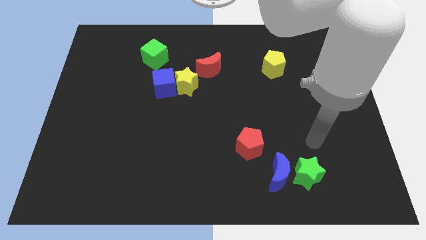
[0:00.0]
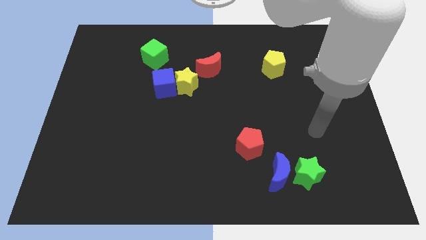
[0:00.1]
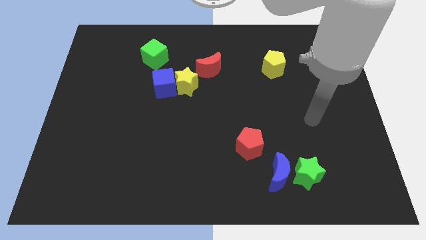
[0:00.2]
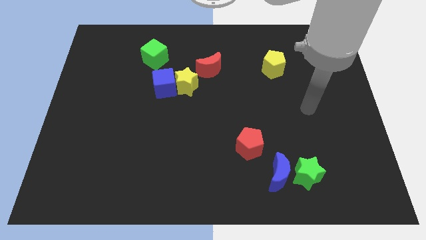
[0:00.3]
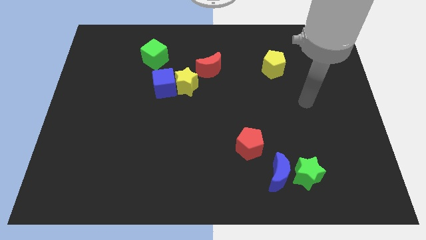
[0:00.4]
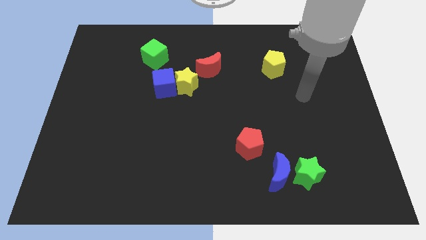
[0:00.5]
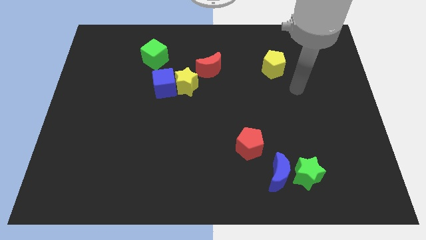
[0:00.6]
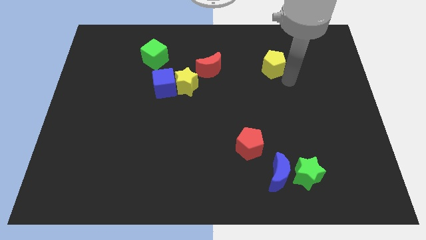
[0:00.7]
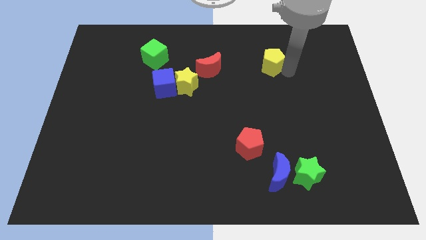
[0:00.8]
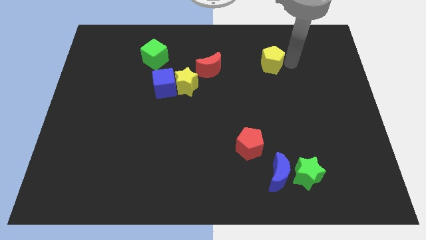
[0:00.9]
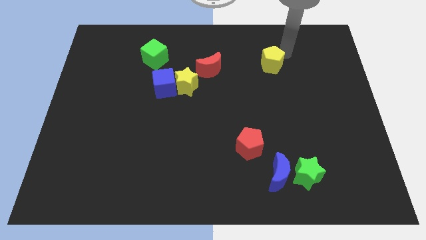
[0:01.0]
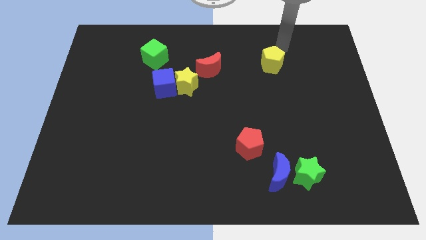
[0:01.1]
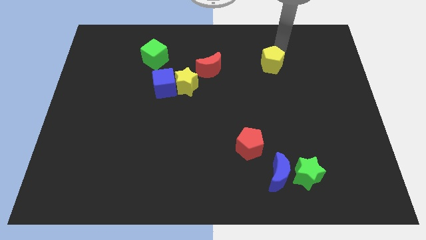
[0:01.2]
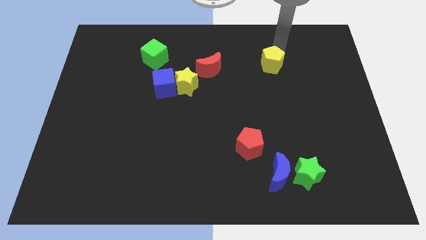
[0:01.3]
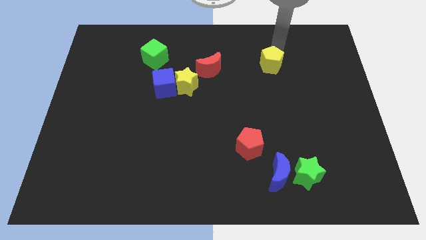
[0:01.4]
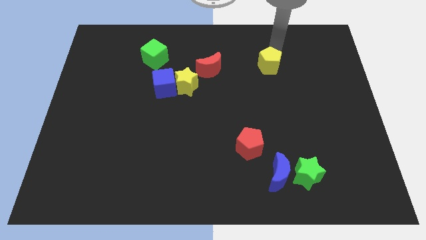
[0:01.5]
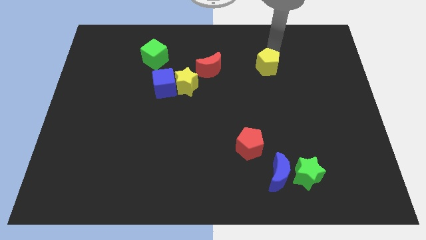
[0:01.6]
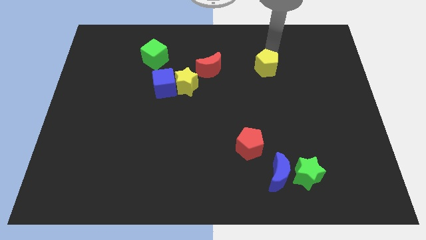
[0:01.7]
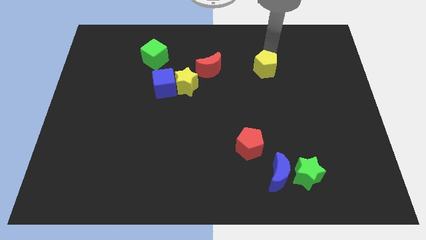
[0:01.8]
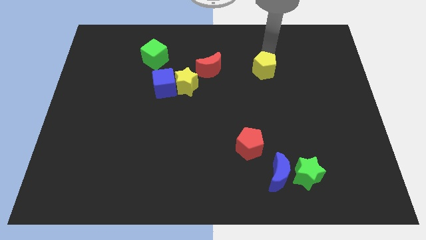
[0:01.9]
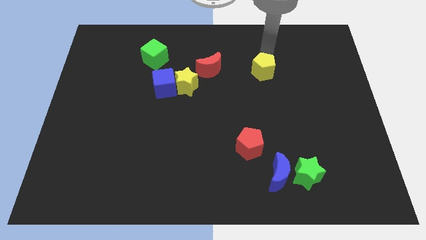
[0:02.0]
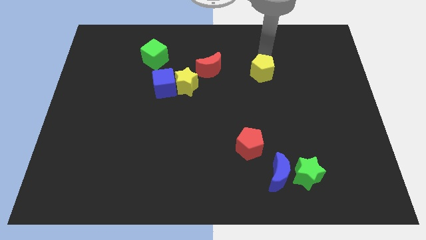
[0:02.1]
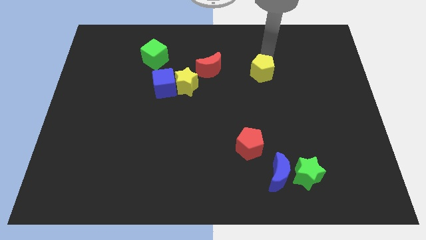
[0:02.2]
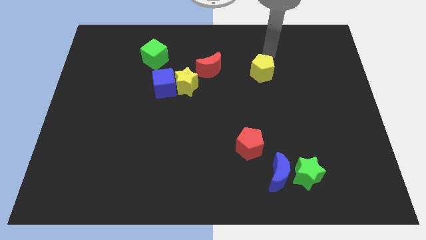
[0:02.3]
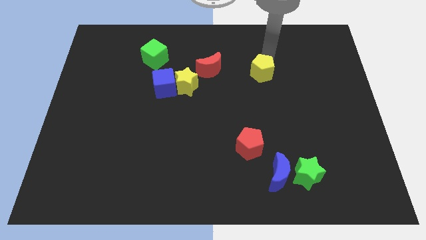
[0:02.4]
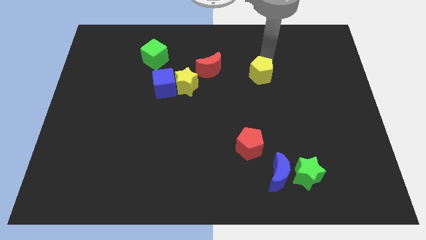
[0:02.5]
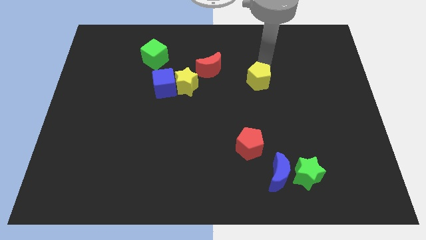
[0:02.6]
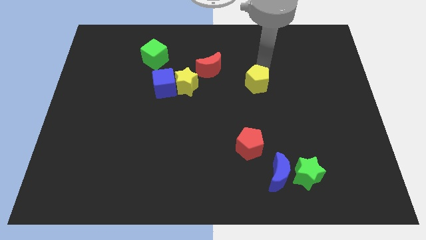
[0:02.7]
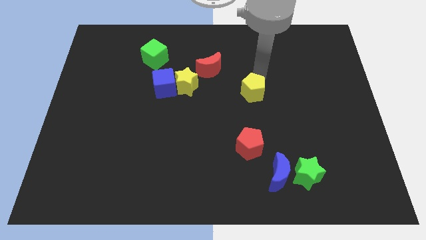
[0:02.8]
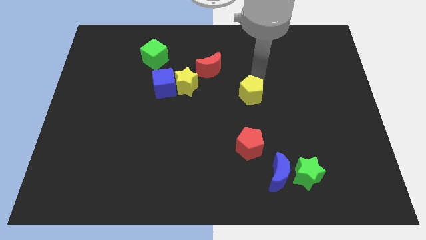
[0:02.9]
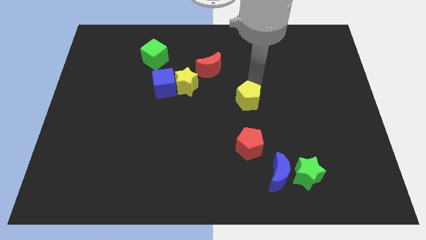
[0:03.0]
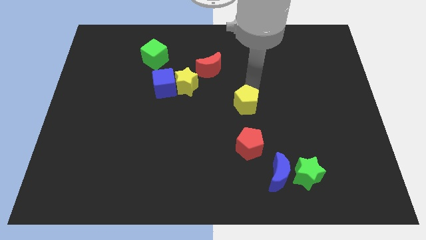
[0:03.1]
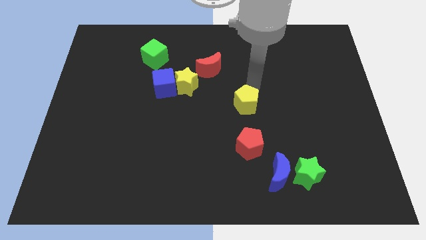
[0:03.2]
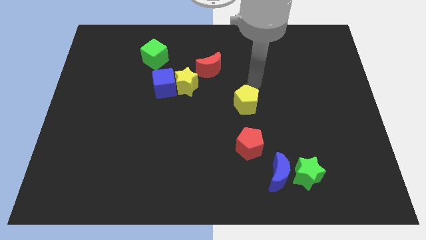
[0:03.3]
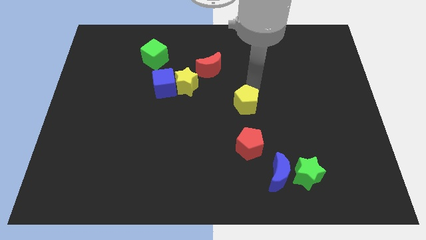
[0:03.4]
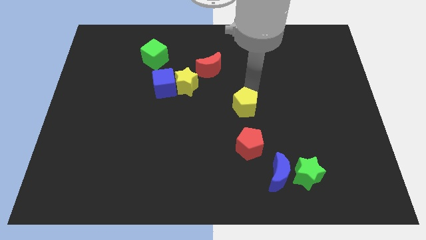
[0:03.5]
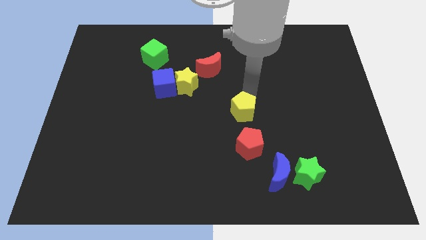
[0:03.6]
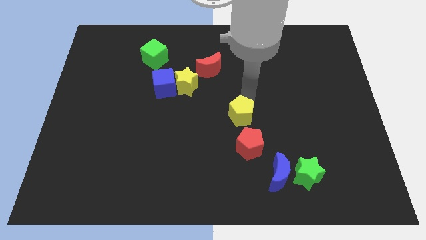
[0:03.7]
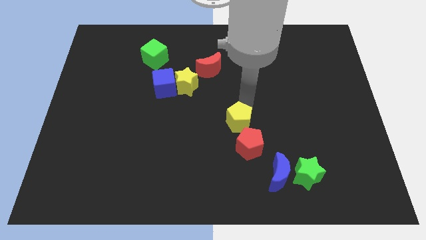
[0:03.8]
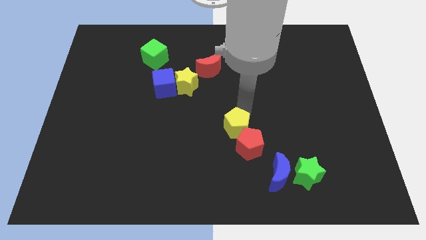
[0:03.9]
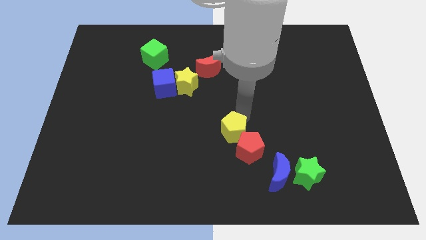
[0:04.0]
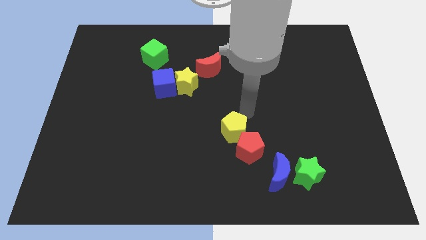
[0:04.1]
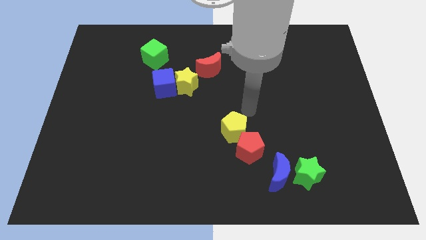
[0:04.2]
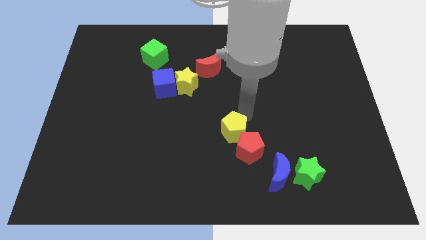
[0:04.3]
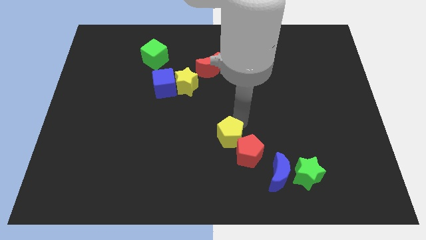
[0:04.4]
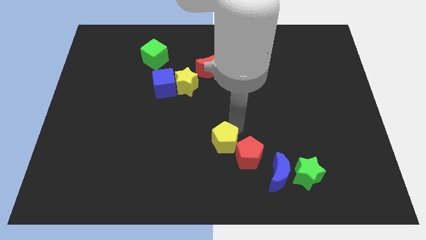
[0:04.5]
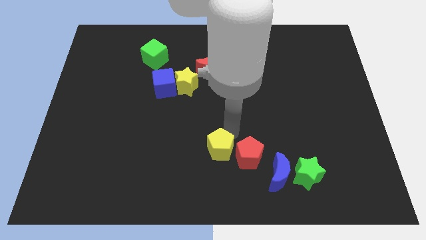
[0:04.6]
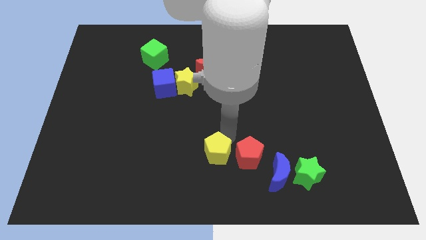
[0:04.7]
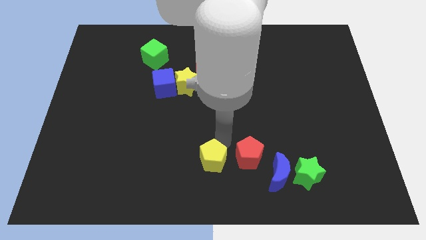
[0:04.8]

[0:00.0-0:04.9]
move the yellow pentagon to the bottom side

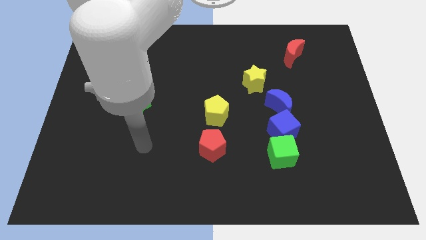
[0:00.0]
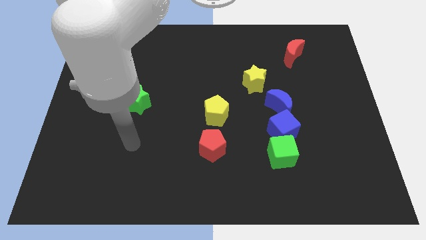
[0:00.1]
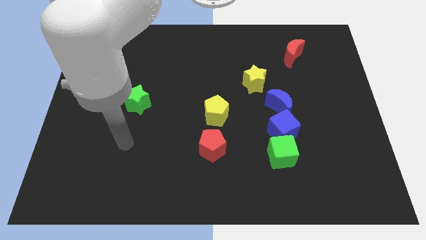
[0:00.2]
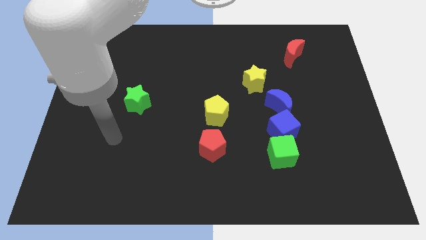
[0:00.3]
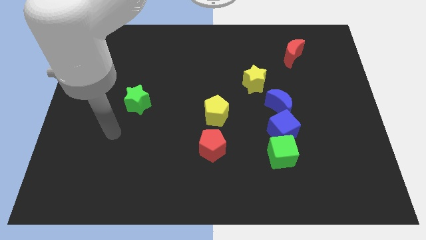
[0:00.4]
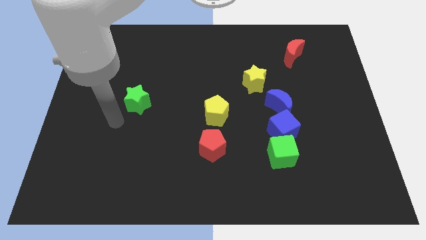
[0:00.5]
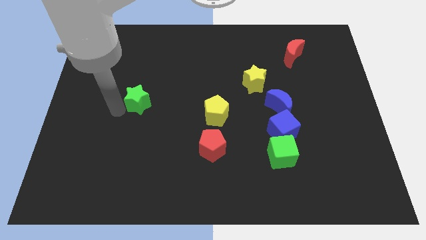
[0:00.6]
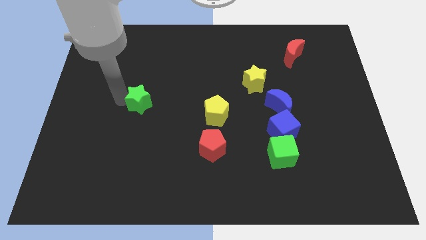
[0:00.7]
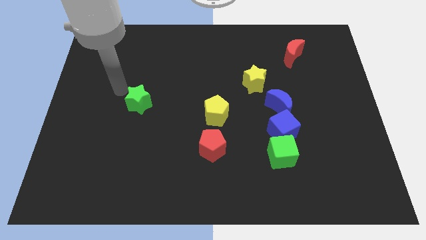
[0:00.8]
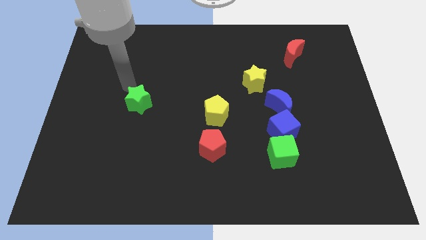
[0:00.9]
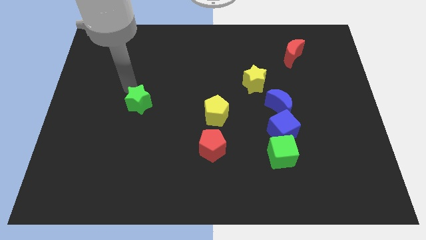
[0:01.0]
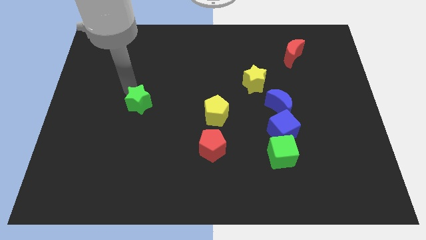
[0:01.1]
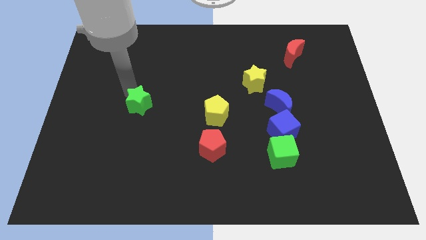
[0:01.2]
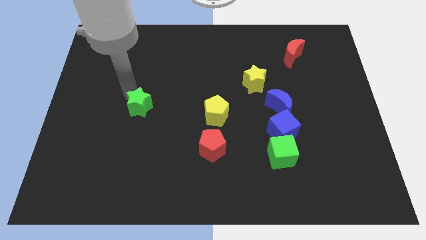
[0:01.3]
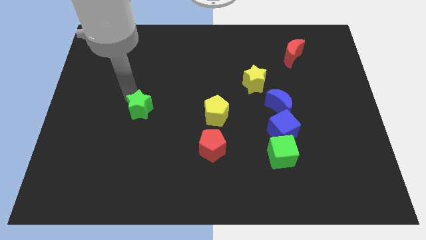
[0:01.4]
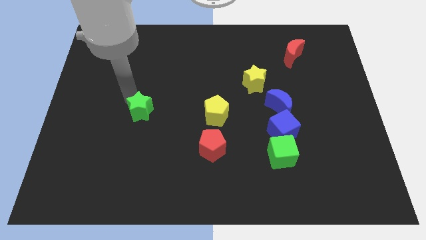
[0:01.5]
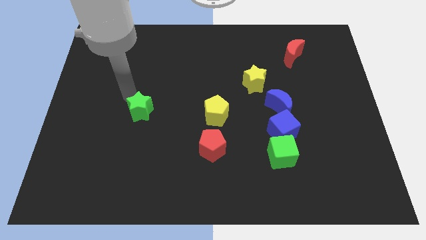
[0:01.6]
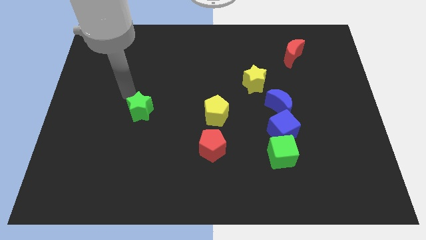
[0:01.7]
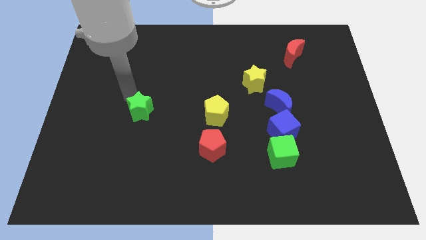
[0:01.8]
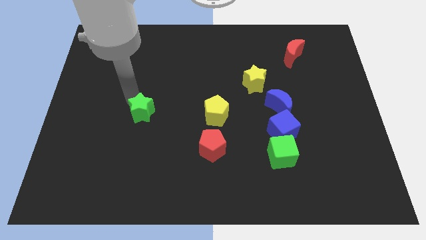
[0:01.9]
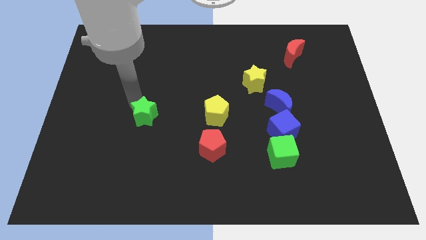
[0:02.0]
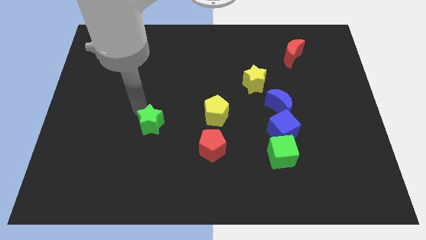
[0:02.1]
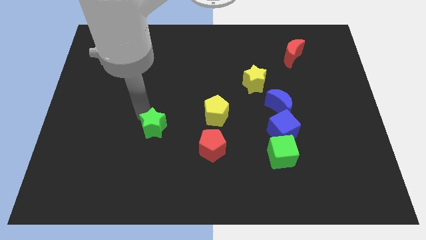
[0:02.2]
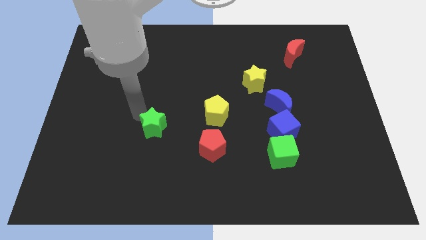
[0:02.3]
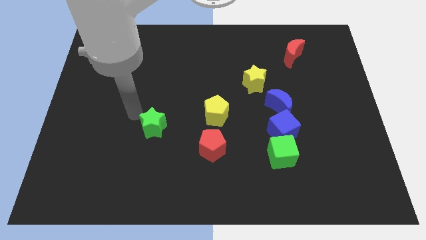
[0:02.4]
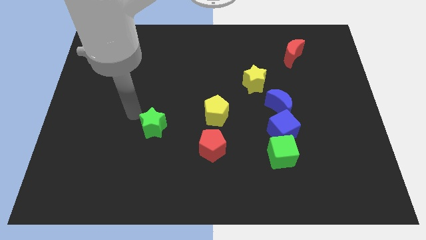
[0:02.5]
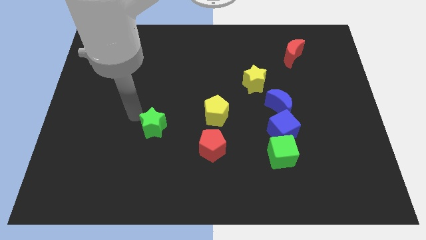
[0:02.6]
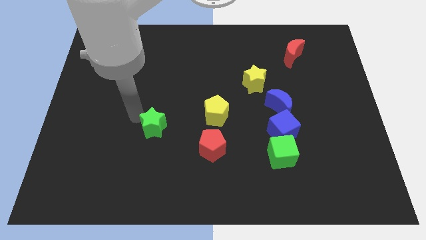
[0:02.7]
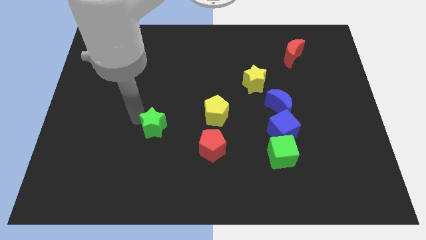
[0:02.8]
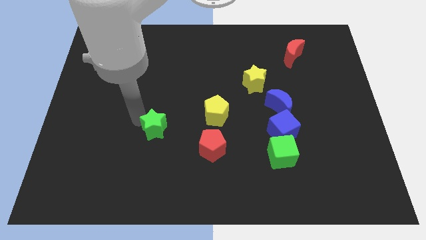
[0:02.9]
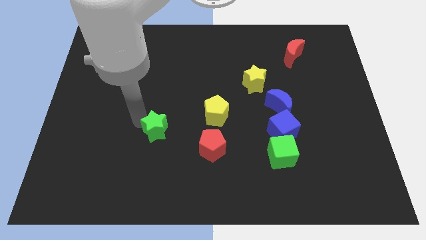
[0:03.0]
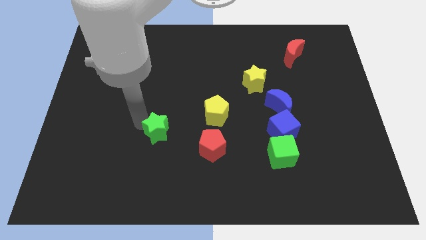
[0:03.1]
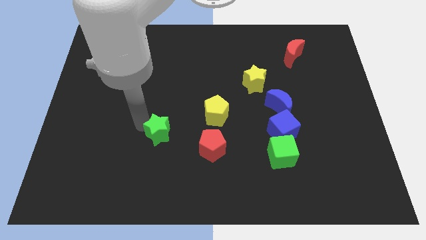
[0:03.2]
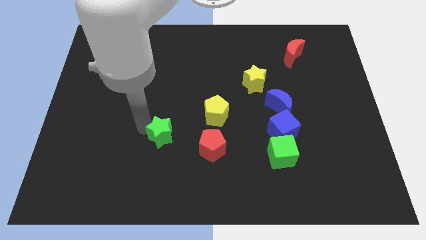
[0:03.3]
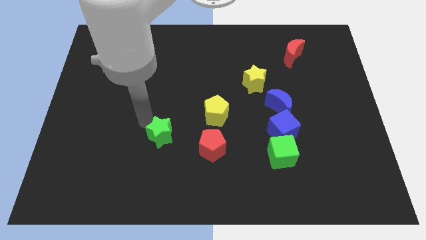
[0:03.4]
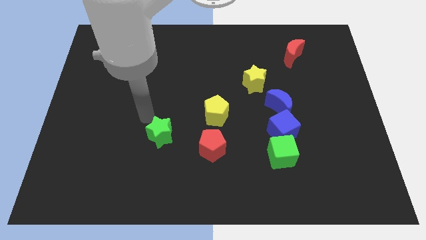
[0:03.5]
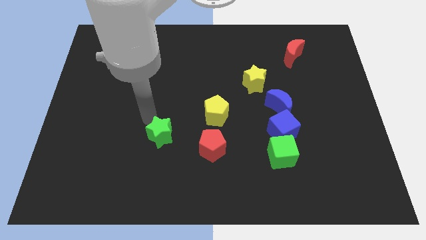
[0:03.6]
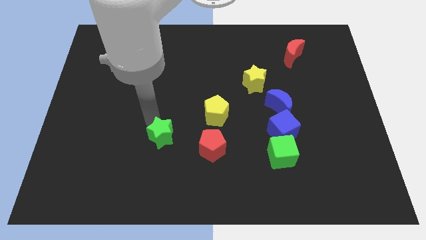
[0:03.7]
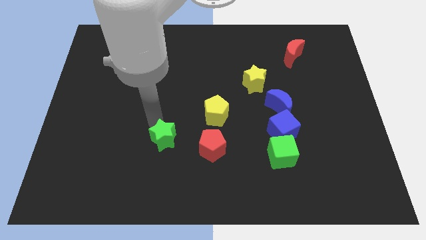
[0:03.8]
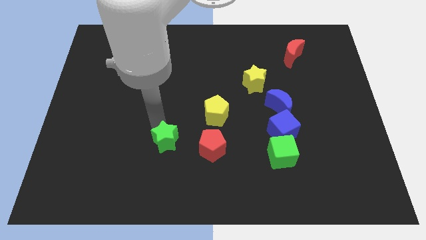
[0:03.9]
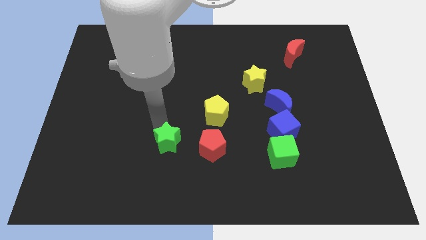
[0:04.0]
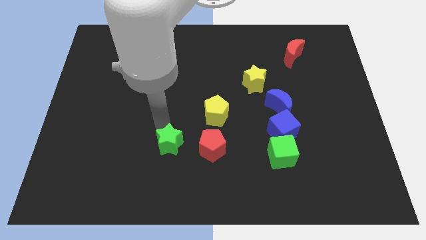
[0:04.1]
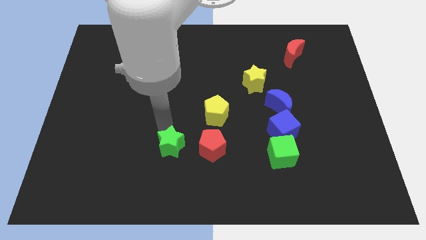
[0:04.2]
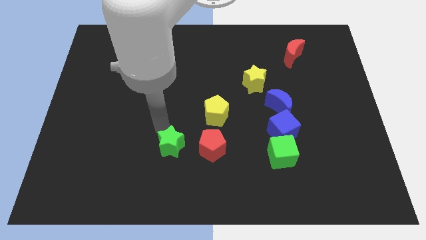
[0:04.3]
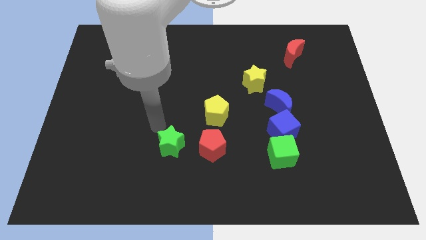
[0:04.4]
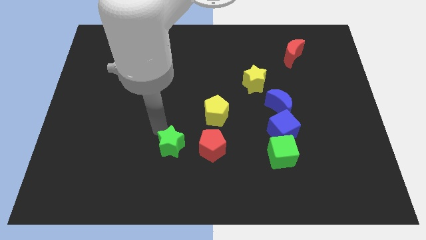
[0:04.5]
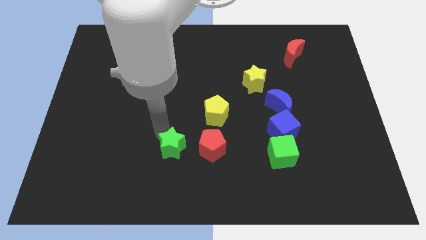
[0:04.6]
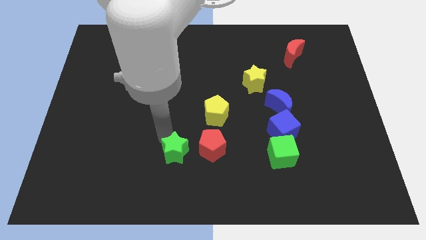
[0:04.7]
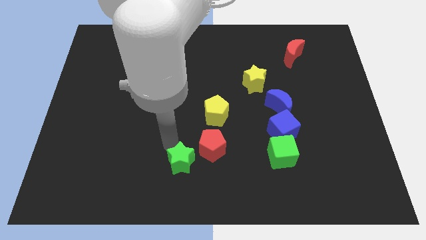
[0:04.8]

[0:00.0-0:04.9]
slide the green star to the bottom
